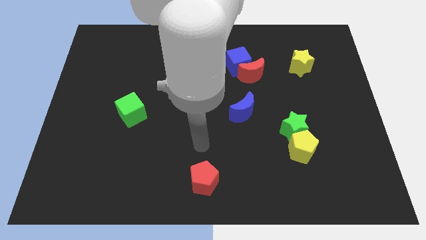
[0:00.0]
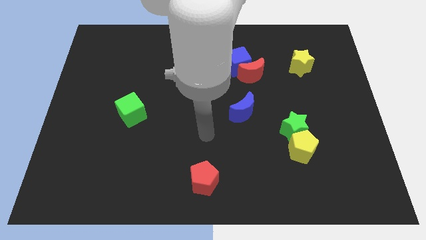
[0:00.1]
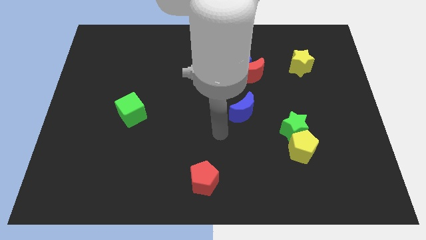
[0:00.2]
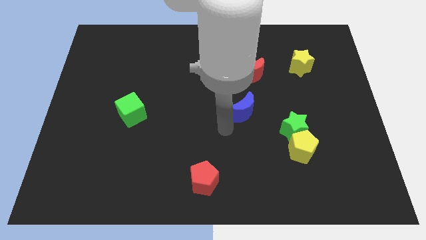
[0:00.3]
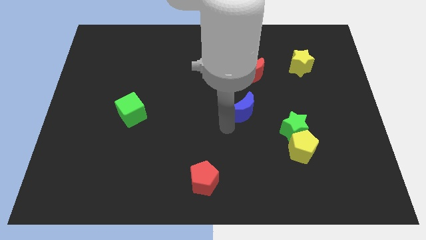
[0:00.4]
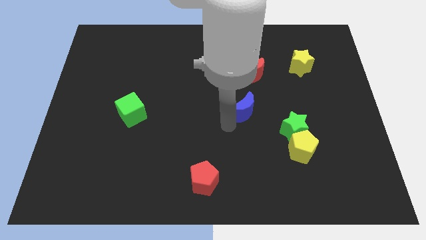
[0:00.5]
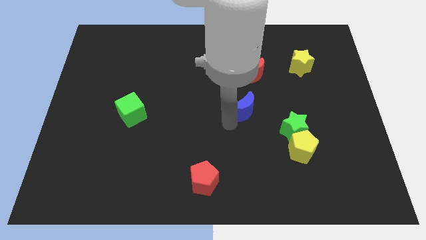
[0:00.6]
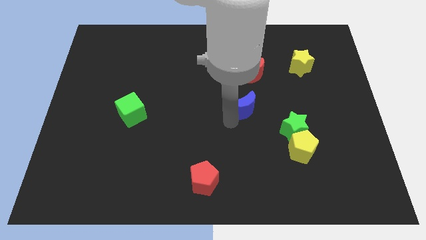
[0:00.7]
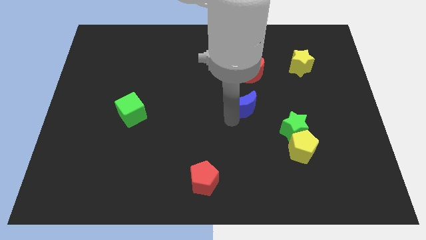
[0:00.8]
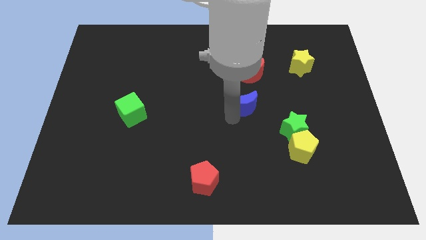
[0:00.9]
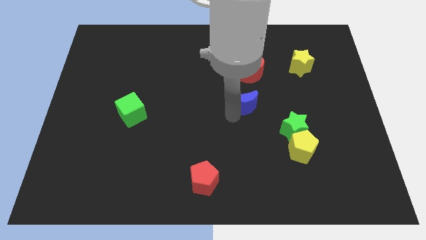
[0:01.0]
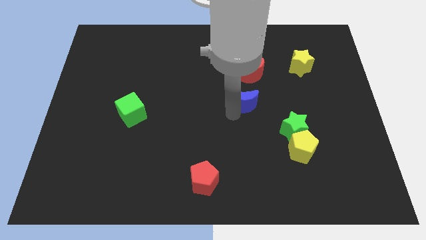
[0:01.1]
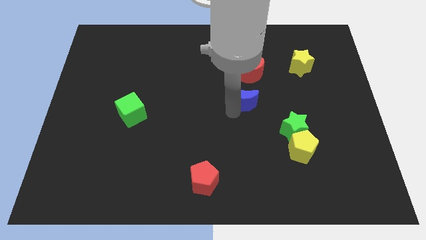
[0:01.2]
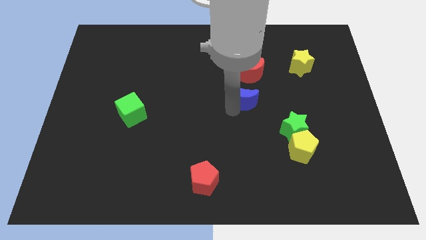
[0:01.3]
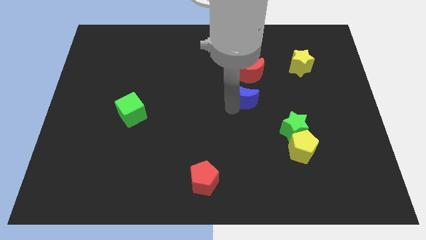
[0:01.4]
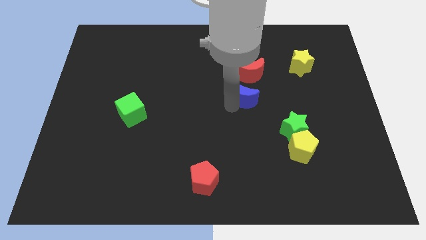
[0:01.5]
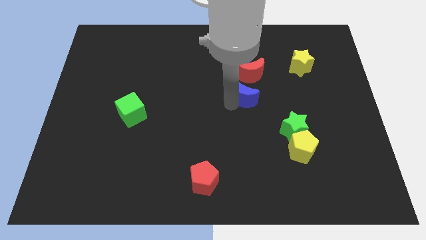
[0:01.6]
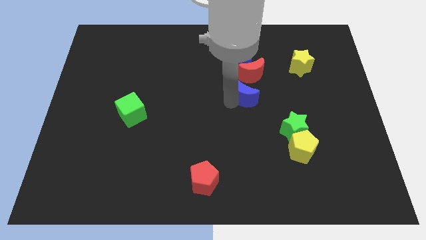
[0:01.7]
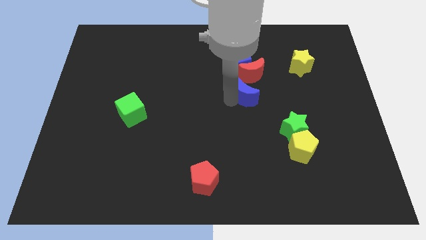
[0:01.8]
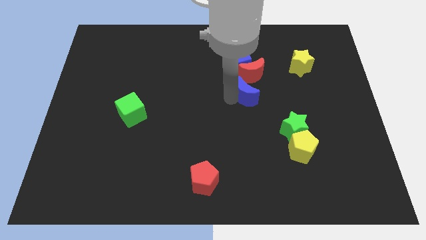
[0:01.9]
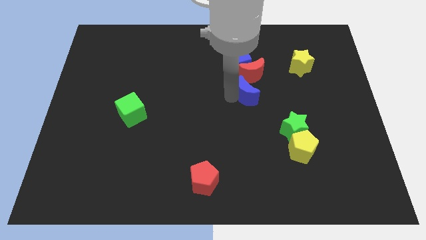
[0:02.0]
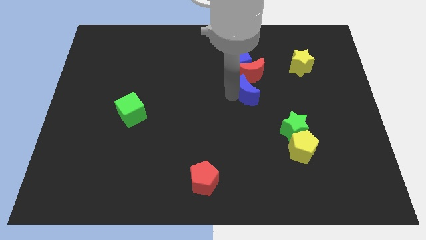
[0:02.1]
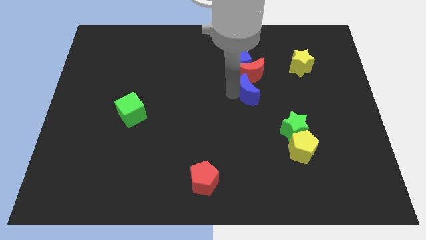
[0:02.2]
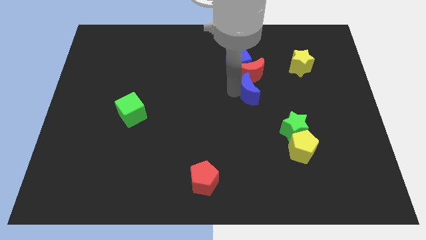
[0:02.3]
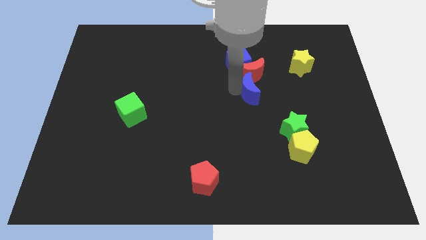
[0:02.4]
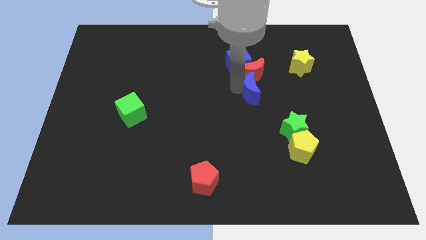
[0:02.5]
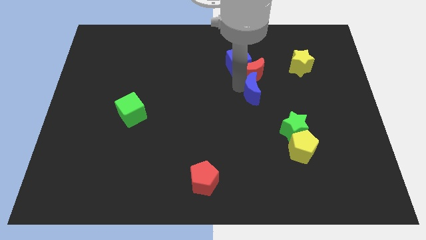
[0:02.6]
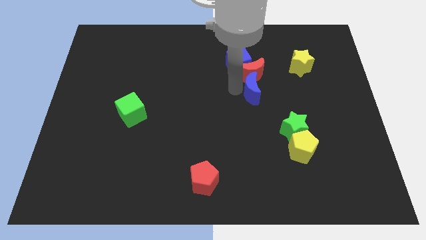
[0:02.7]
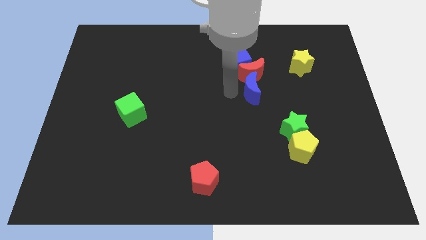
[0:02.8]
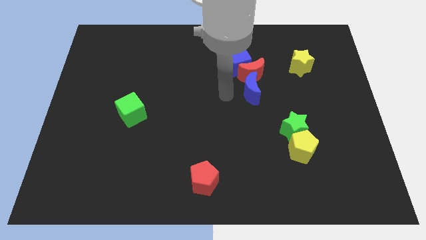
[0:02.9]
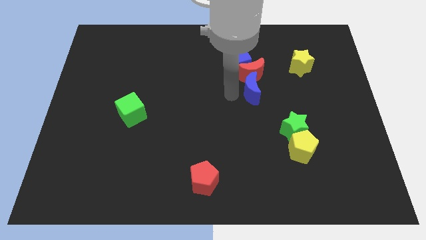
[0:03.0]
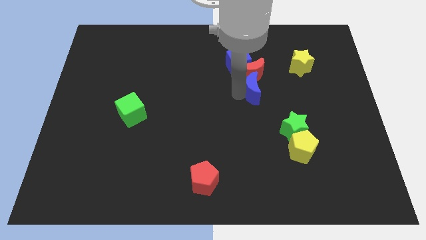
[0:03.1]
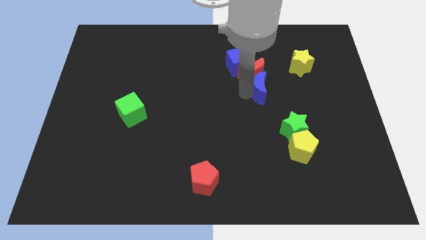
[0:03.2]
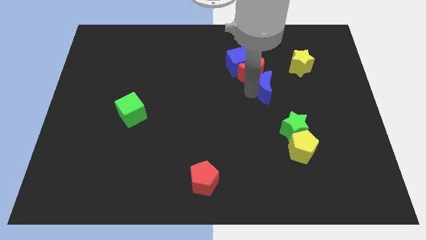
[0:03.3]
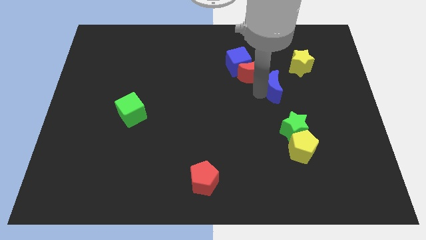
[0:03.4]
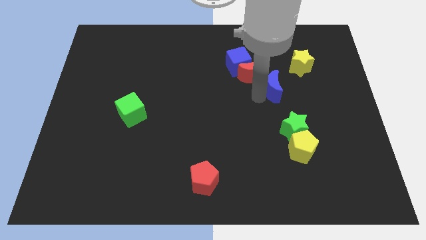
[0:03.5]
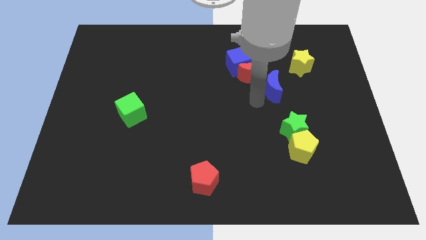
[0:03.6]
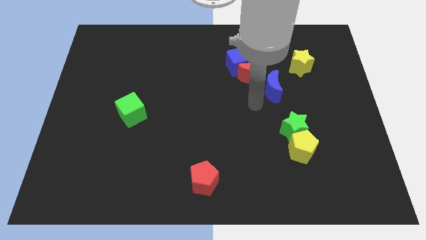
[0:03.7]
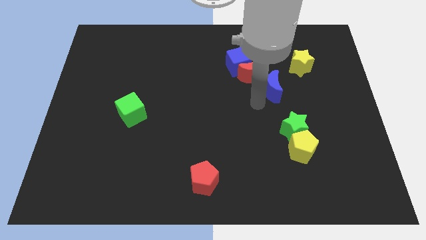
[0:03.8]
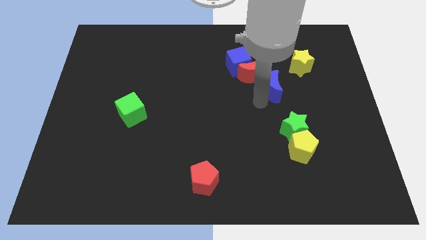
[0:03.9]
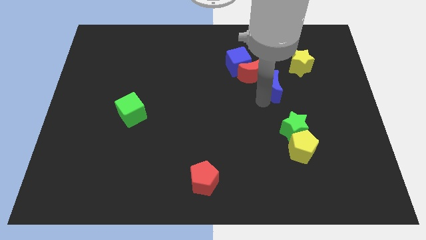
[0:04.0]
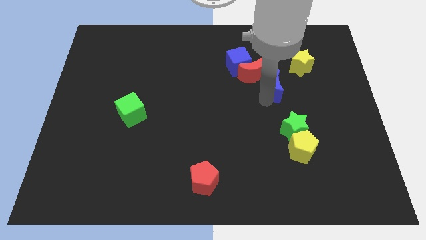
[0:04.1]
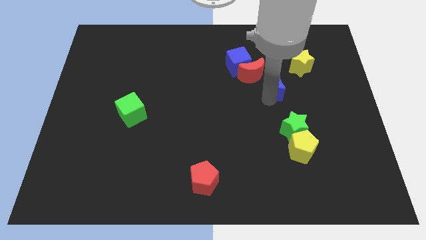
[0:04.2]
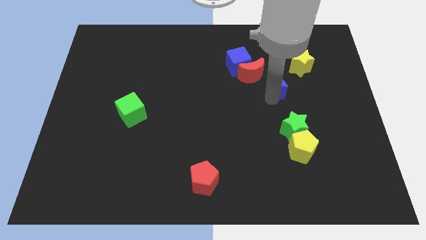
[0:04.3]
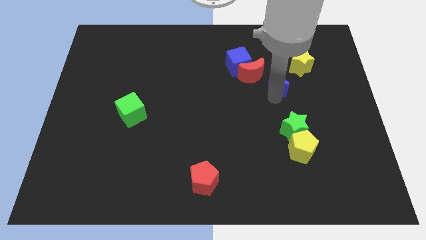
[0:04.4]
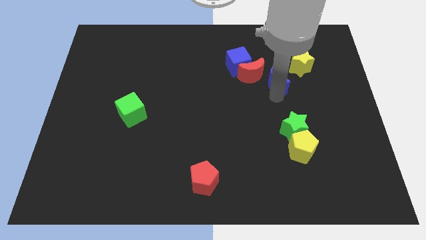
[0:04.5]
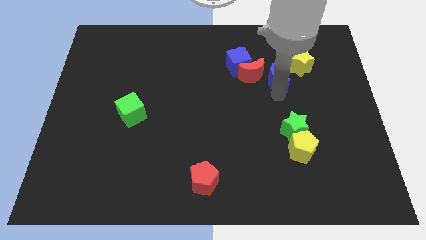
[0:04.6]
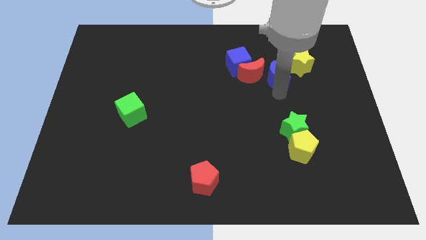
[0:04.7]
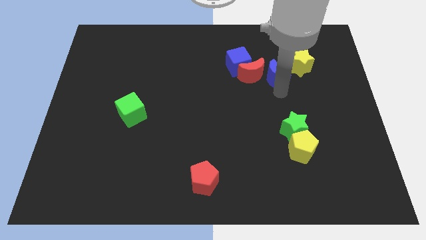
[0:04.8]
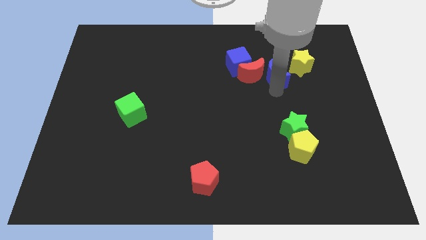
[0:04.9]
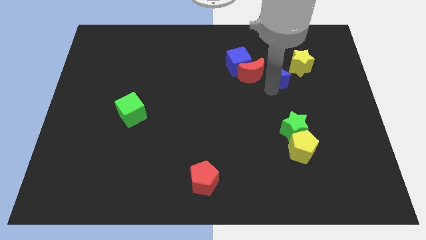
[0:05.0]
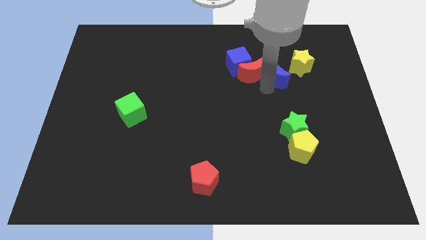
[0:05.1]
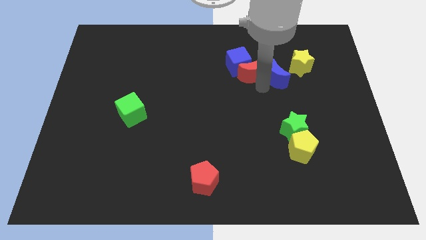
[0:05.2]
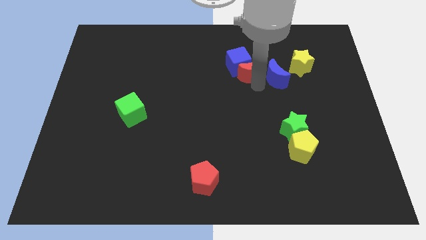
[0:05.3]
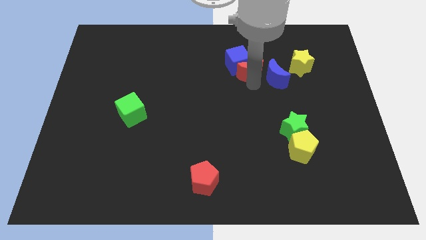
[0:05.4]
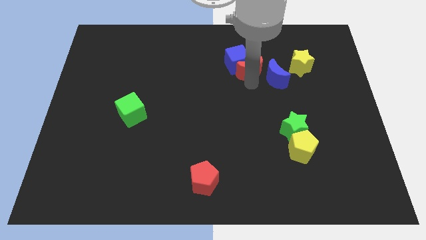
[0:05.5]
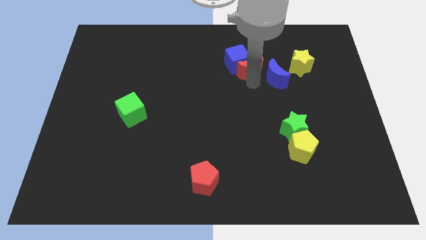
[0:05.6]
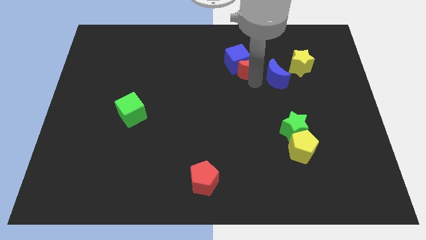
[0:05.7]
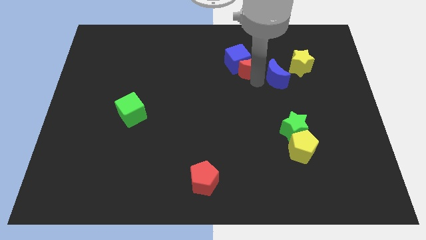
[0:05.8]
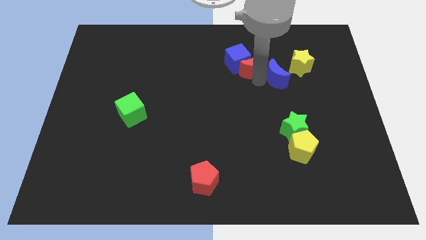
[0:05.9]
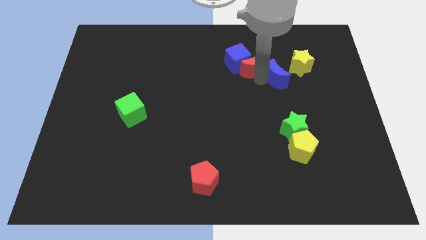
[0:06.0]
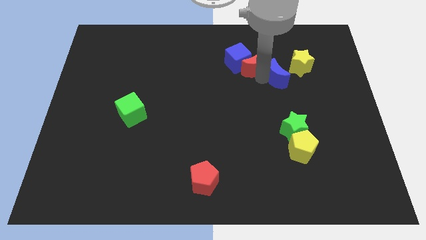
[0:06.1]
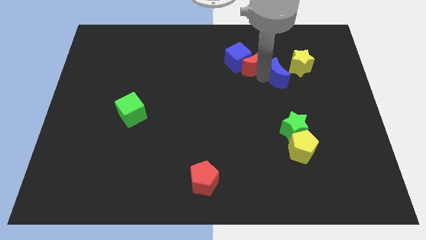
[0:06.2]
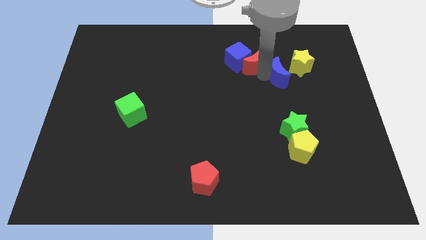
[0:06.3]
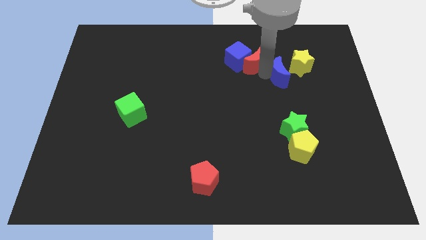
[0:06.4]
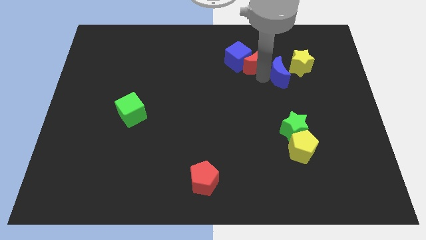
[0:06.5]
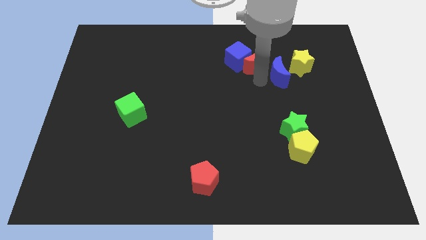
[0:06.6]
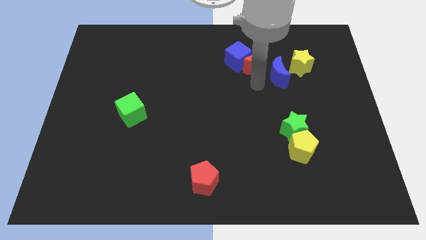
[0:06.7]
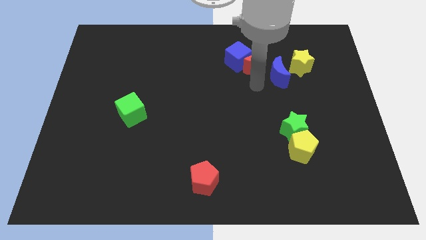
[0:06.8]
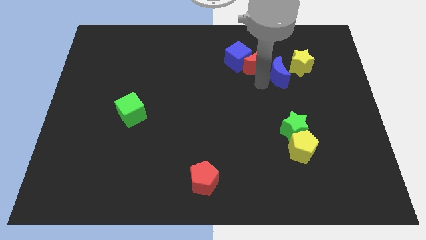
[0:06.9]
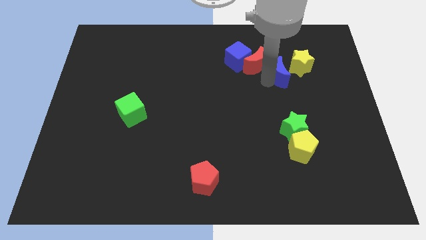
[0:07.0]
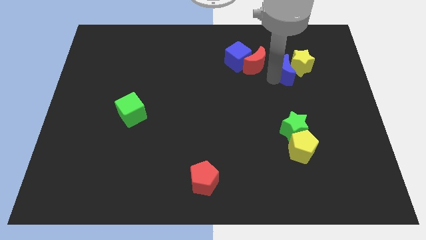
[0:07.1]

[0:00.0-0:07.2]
put the blue moon to the yellow star

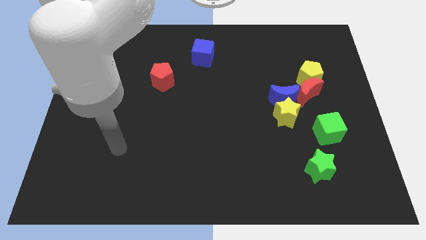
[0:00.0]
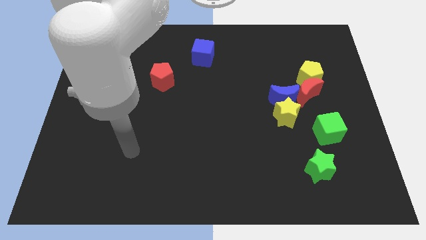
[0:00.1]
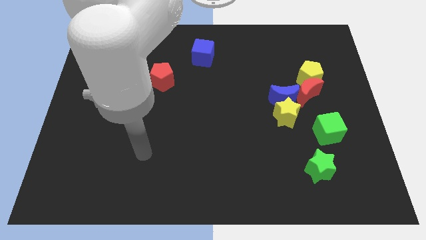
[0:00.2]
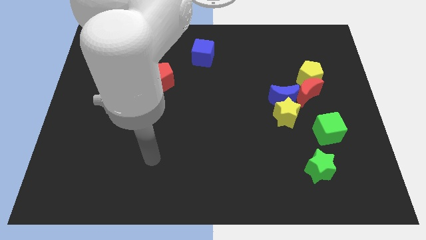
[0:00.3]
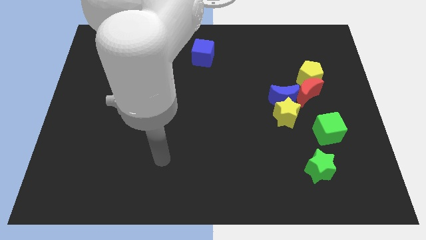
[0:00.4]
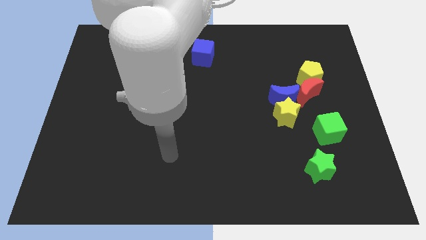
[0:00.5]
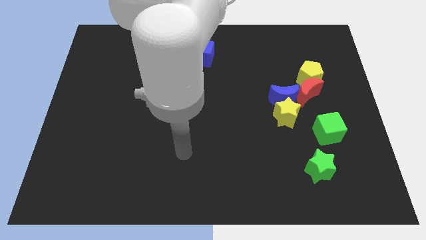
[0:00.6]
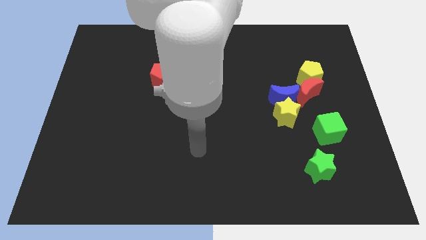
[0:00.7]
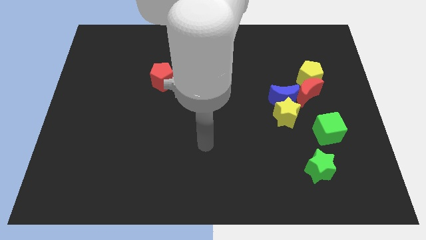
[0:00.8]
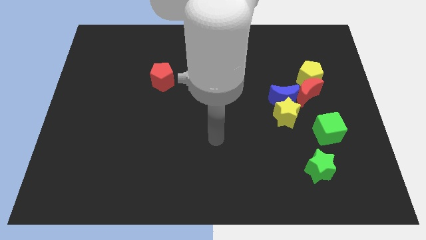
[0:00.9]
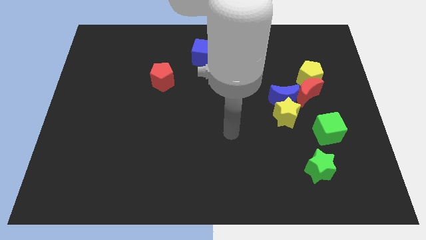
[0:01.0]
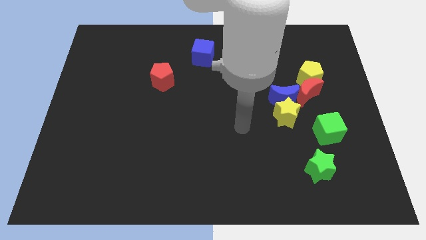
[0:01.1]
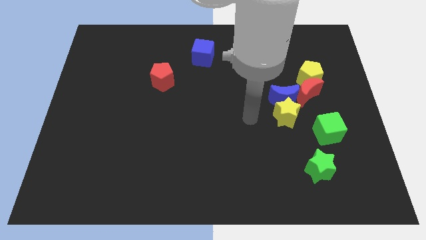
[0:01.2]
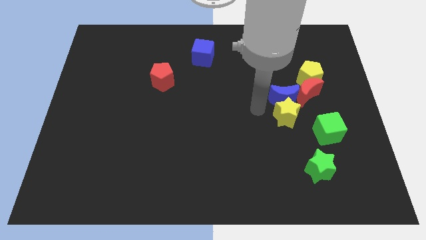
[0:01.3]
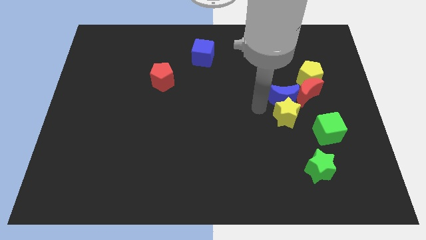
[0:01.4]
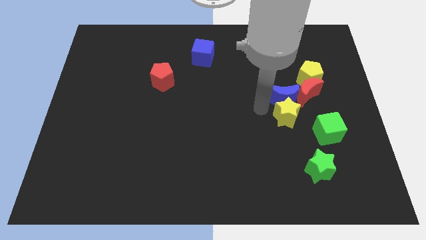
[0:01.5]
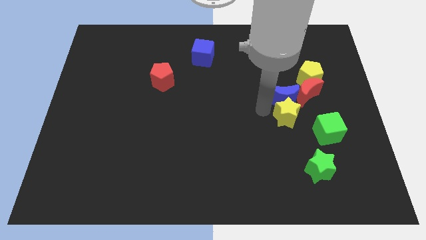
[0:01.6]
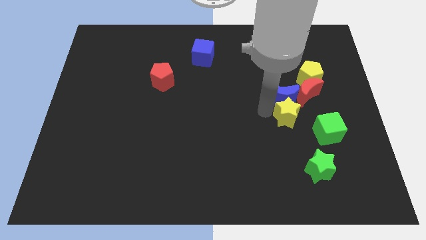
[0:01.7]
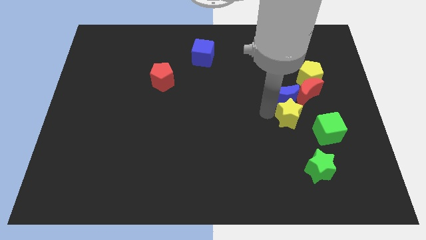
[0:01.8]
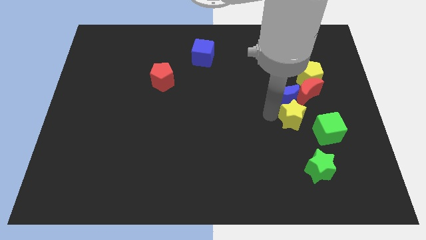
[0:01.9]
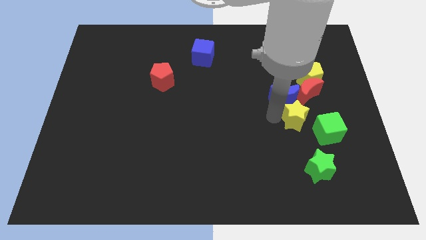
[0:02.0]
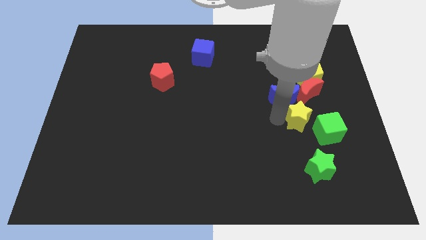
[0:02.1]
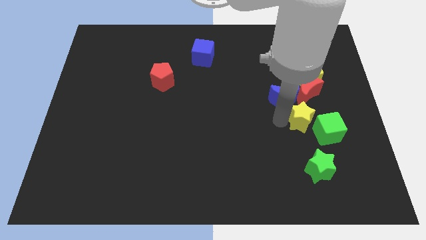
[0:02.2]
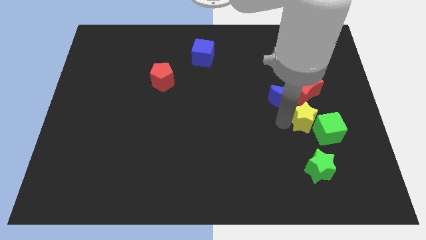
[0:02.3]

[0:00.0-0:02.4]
slide the yellow star to the green cube
